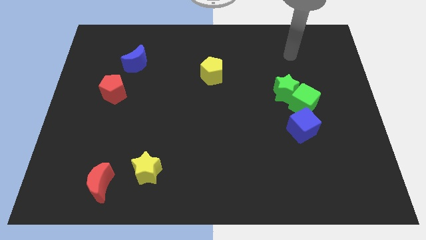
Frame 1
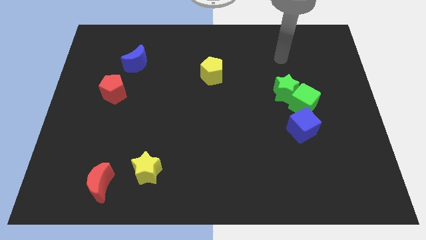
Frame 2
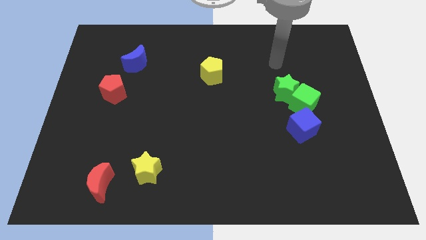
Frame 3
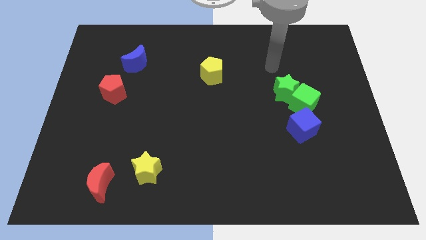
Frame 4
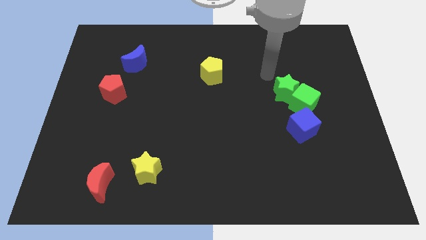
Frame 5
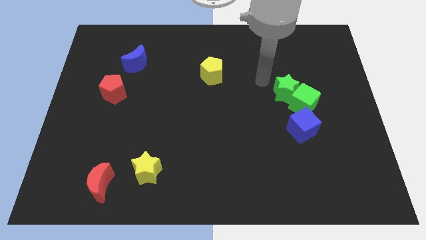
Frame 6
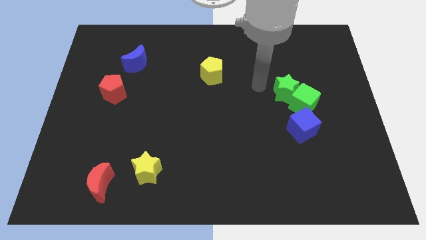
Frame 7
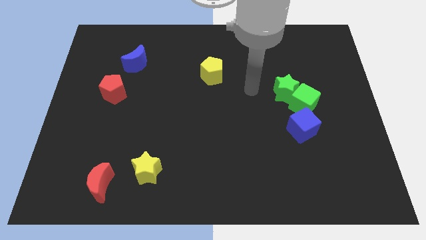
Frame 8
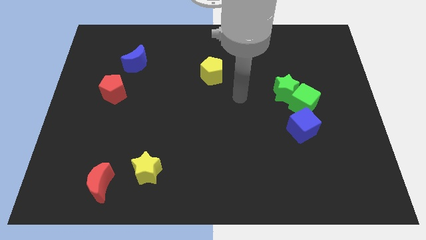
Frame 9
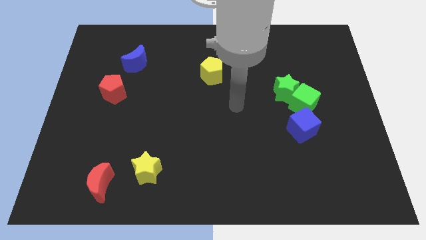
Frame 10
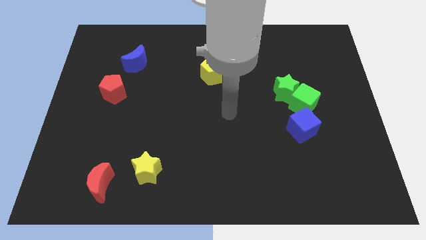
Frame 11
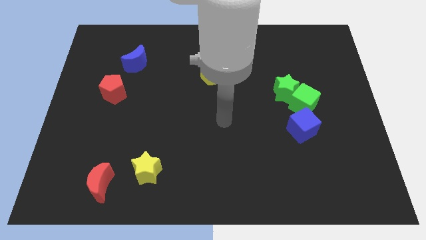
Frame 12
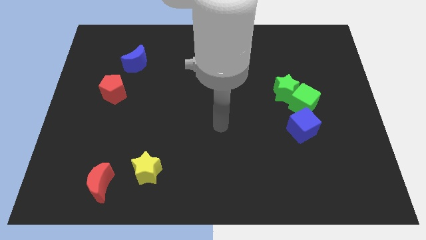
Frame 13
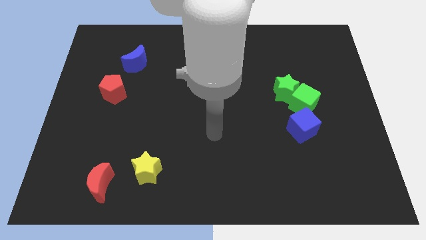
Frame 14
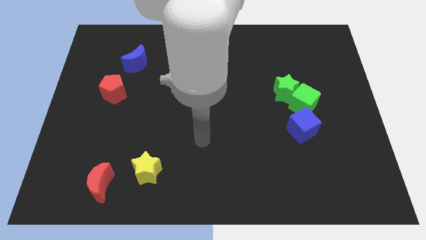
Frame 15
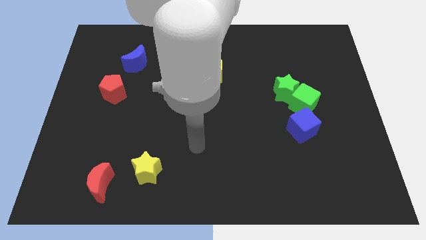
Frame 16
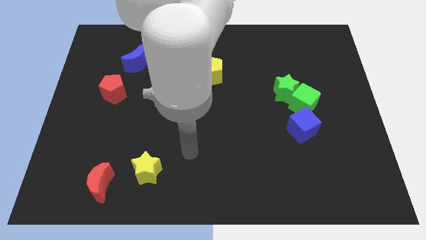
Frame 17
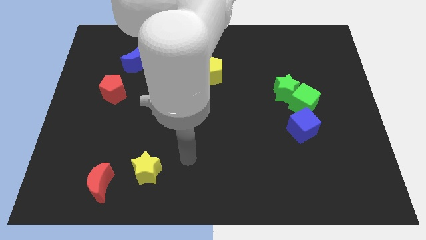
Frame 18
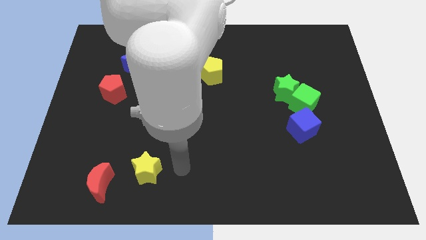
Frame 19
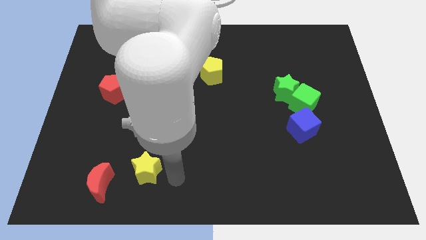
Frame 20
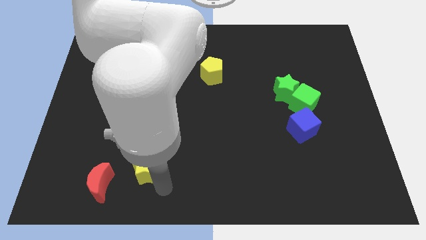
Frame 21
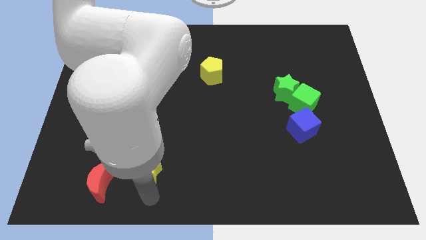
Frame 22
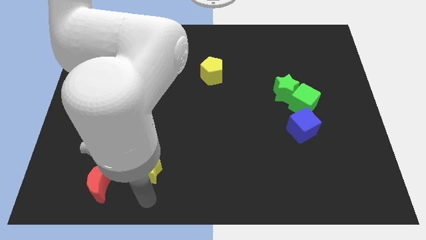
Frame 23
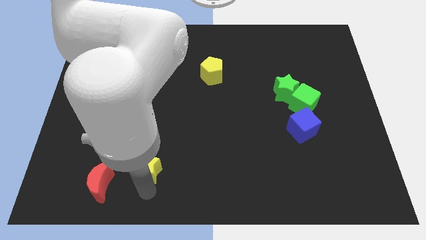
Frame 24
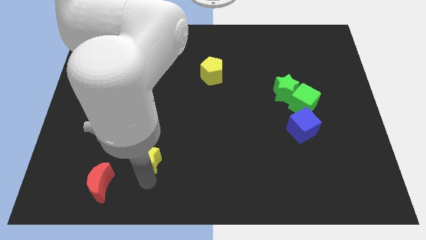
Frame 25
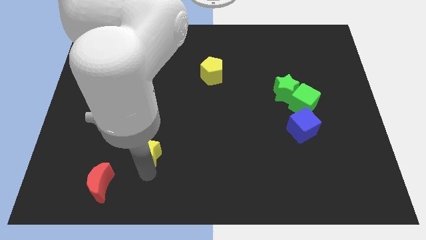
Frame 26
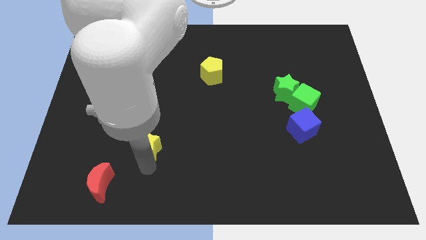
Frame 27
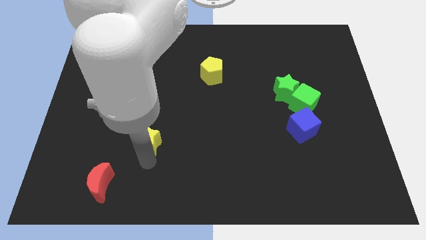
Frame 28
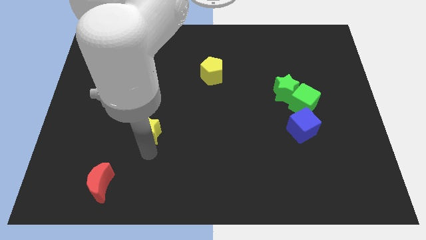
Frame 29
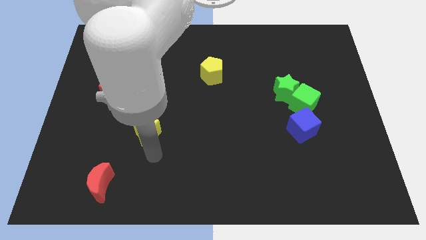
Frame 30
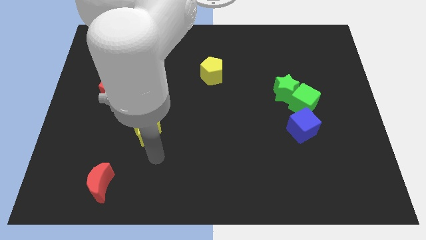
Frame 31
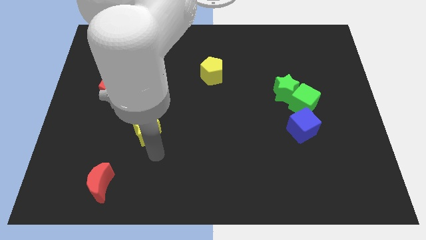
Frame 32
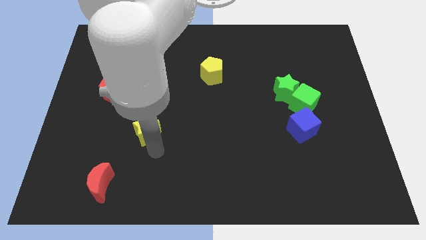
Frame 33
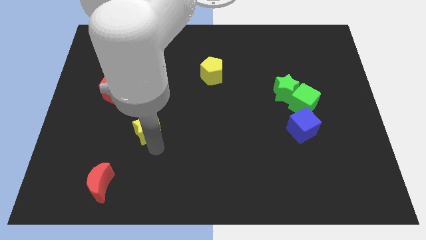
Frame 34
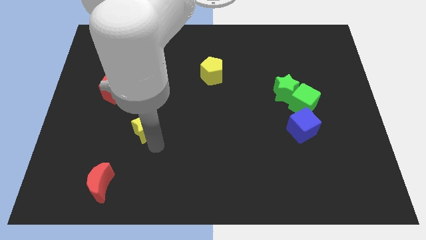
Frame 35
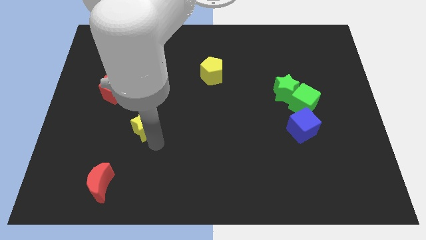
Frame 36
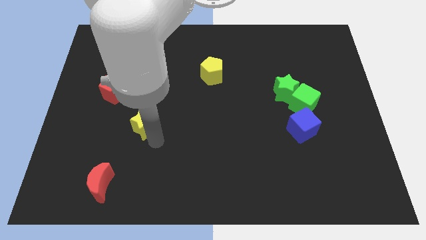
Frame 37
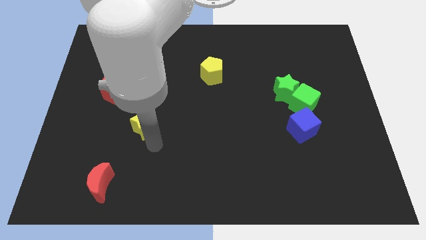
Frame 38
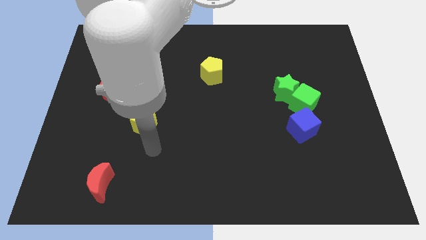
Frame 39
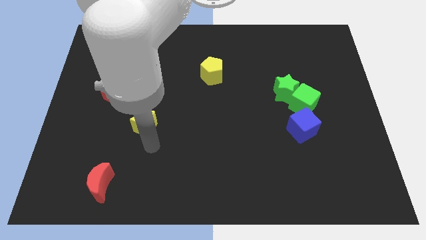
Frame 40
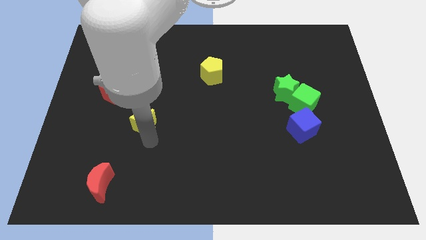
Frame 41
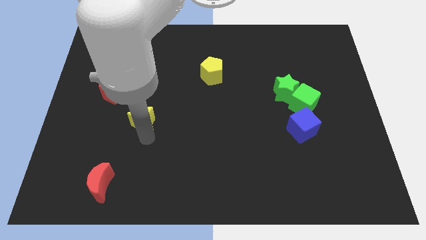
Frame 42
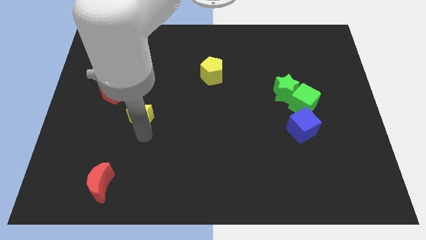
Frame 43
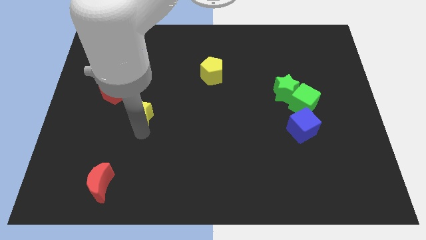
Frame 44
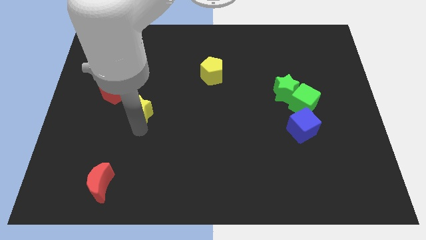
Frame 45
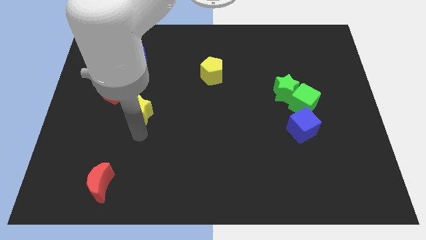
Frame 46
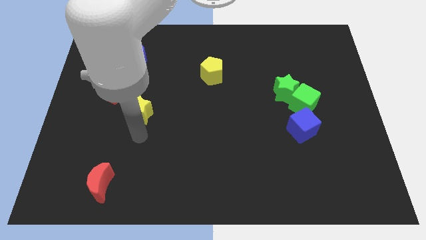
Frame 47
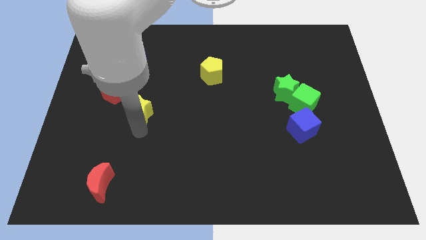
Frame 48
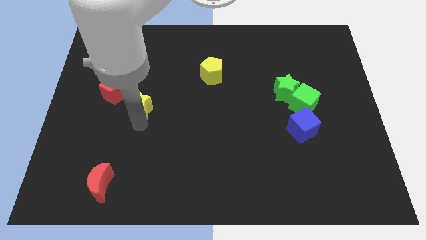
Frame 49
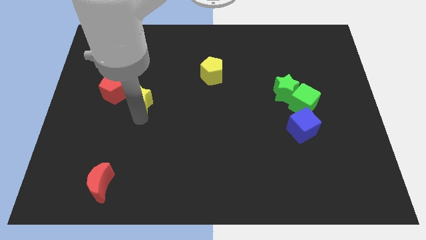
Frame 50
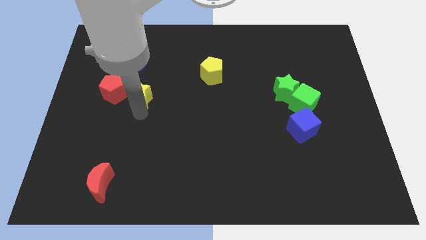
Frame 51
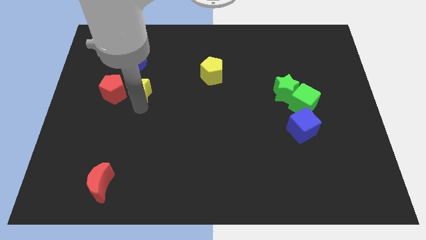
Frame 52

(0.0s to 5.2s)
move the yellow star to the top right side of the red pentagon

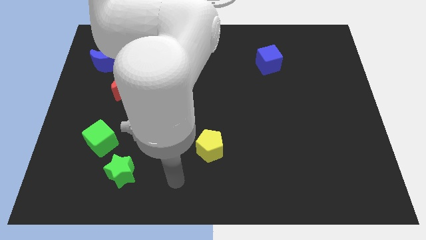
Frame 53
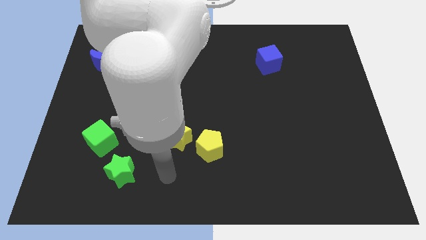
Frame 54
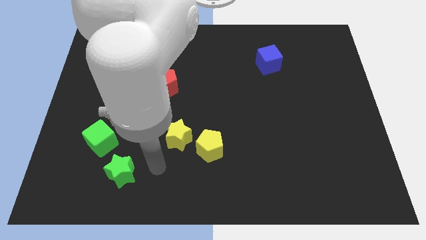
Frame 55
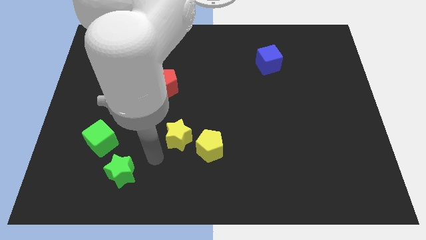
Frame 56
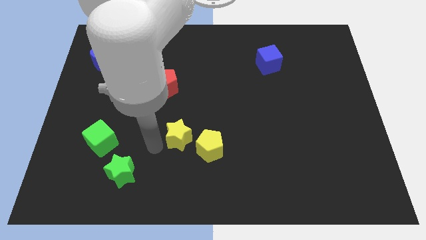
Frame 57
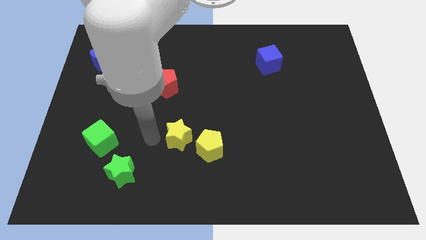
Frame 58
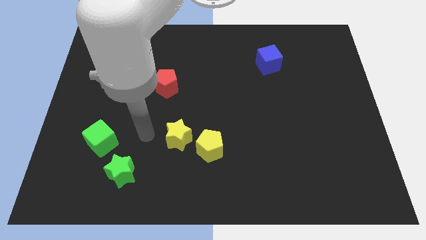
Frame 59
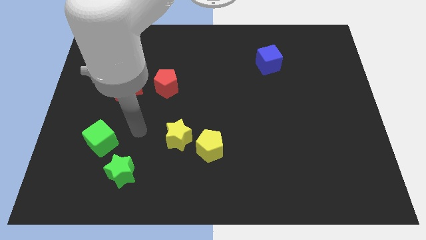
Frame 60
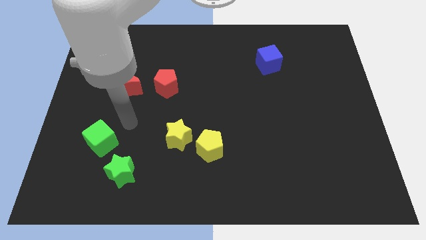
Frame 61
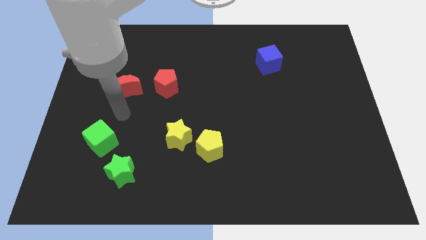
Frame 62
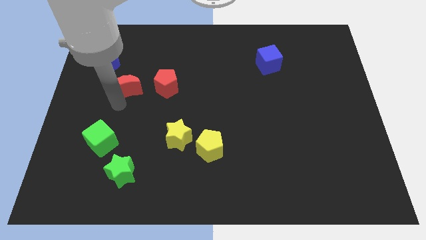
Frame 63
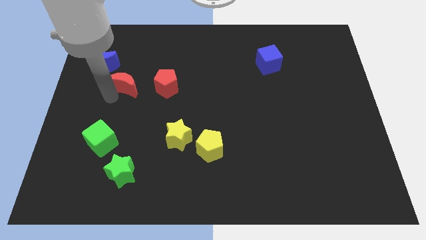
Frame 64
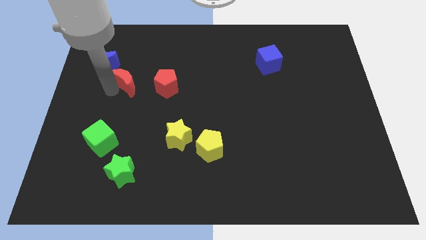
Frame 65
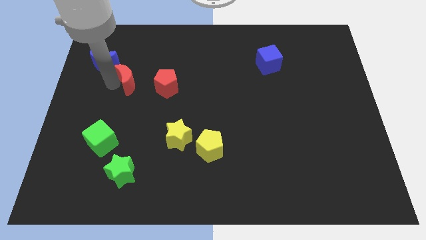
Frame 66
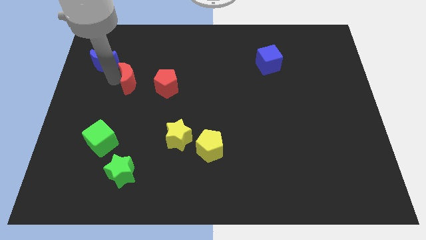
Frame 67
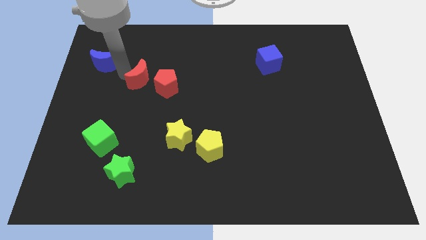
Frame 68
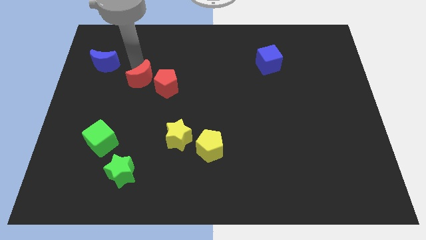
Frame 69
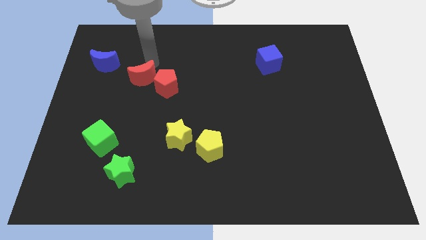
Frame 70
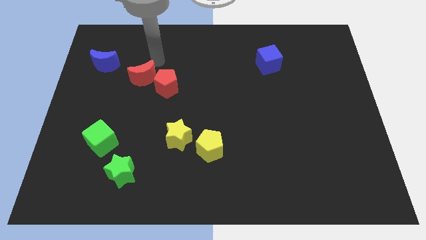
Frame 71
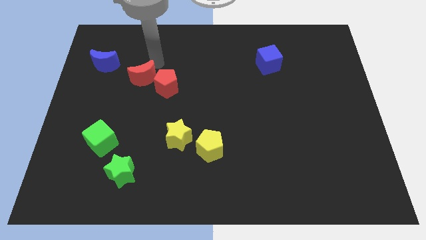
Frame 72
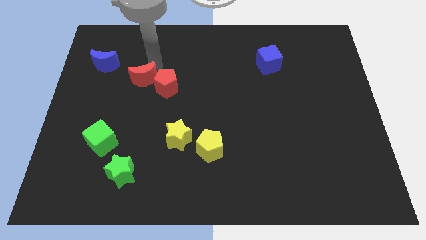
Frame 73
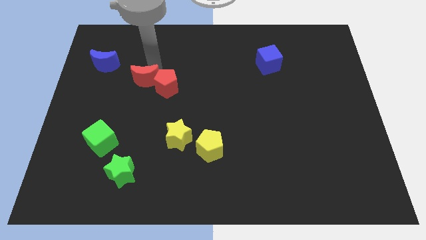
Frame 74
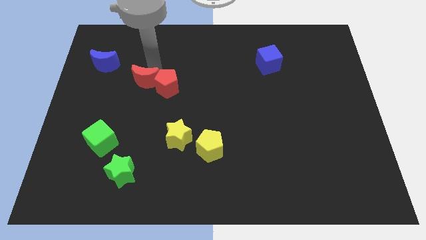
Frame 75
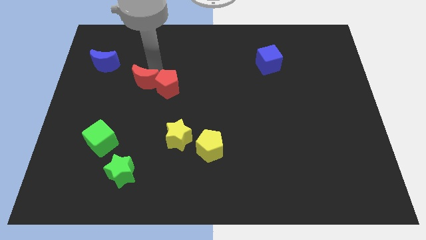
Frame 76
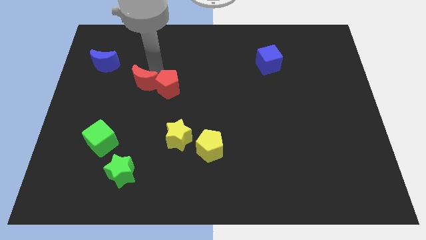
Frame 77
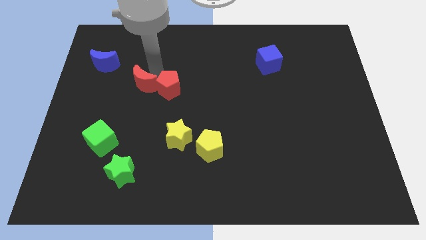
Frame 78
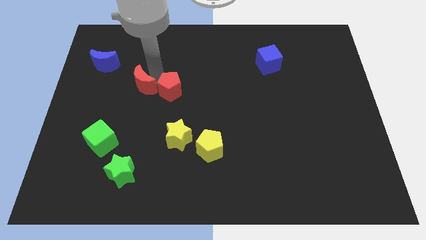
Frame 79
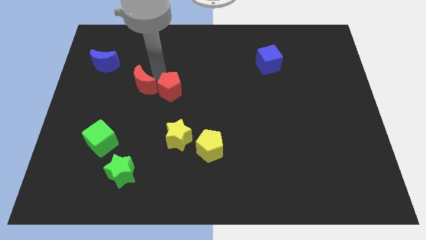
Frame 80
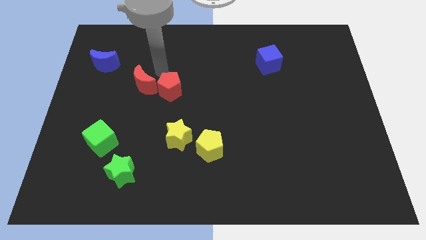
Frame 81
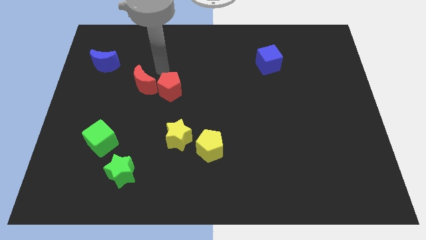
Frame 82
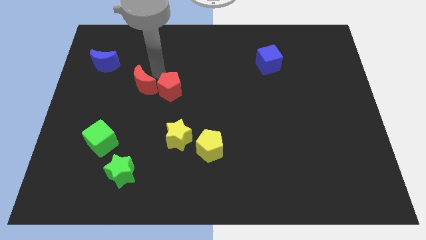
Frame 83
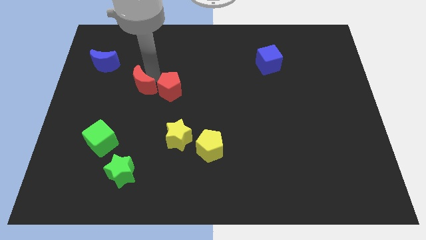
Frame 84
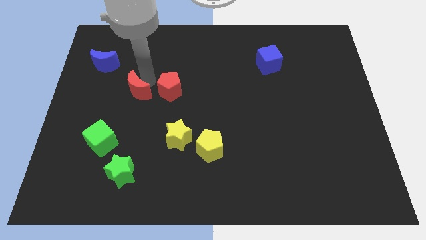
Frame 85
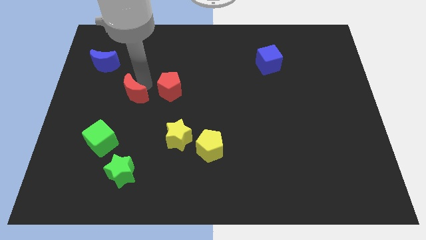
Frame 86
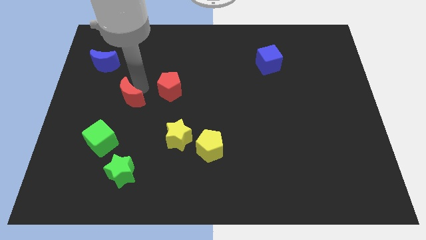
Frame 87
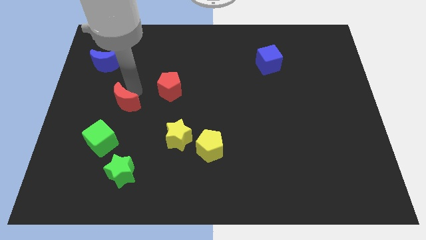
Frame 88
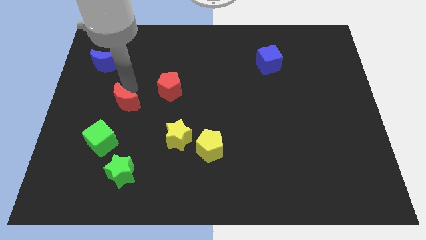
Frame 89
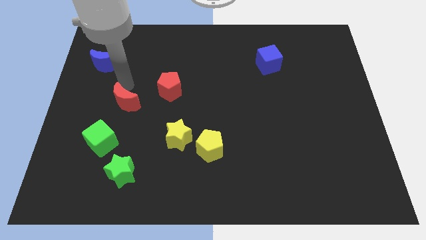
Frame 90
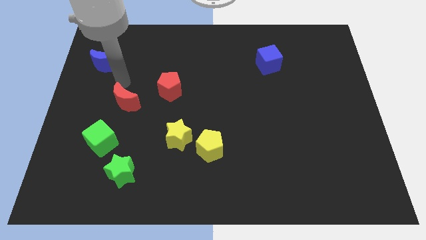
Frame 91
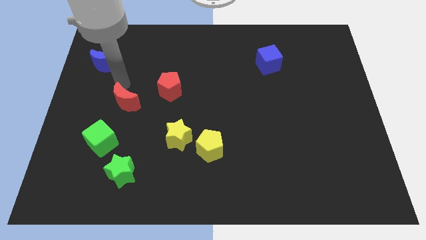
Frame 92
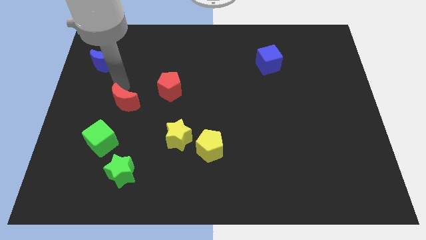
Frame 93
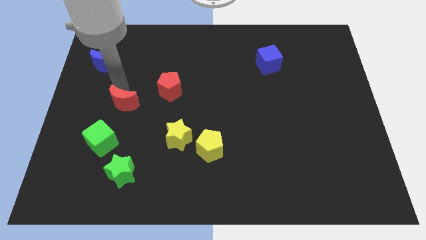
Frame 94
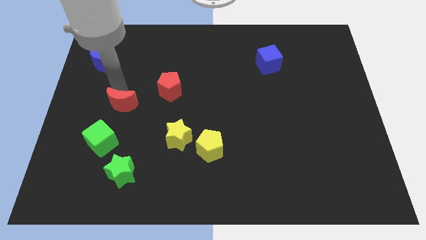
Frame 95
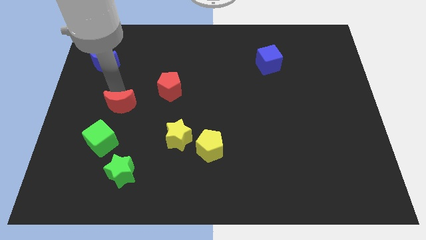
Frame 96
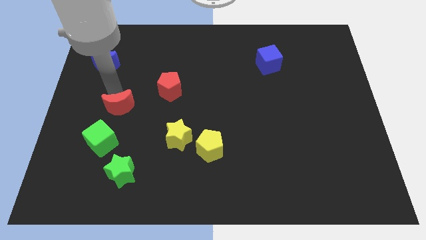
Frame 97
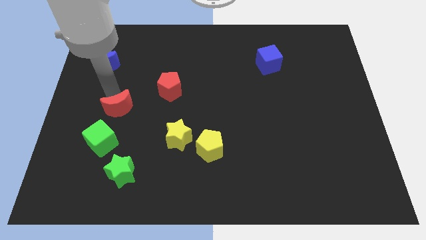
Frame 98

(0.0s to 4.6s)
put the red moon diagonally up and to the right of the green cube
